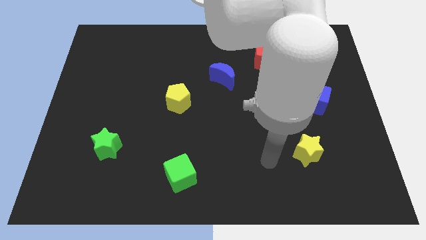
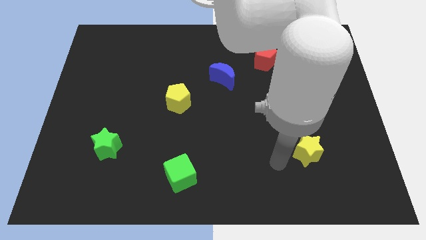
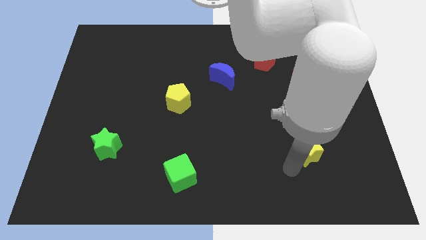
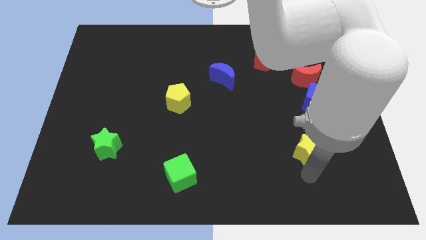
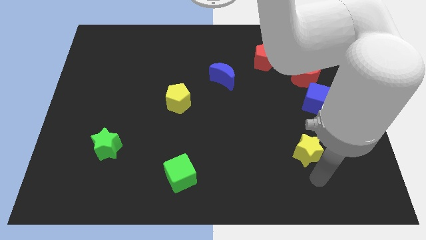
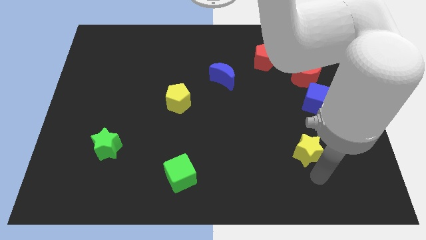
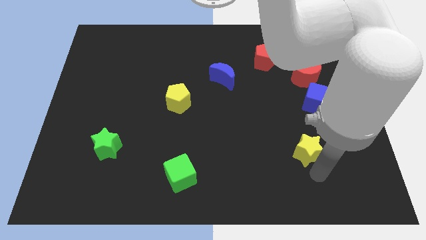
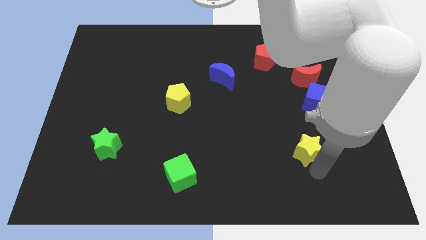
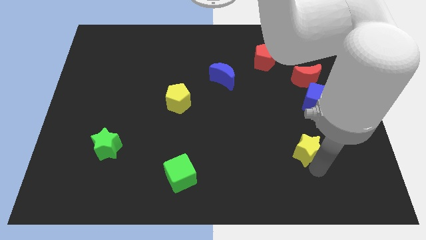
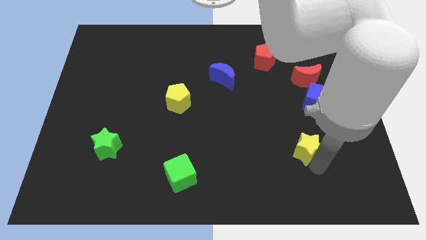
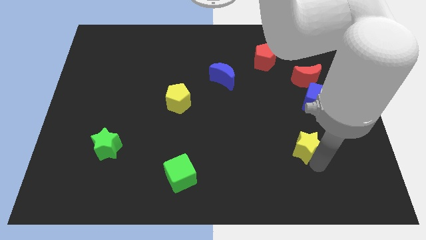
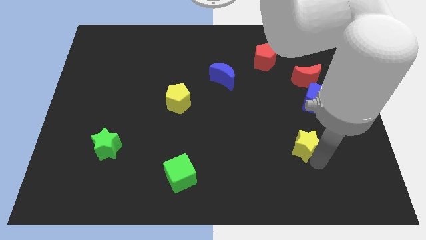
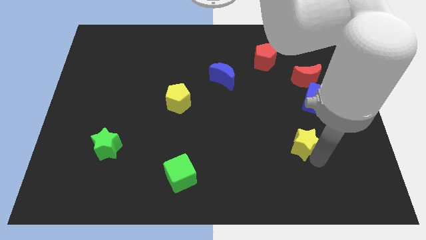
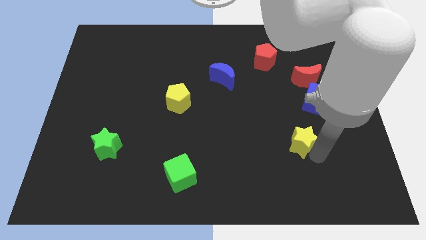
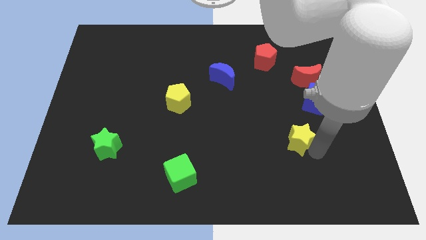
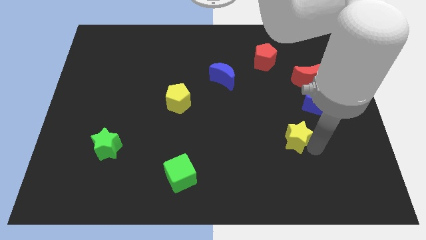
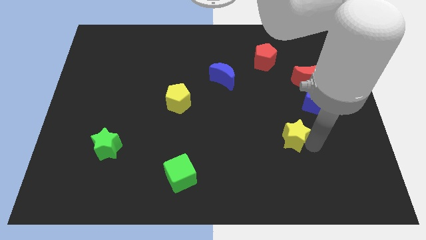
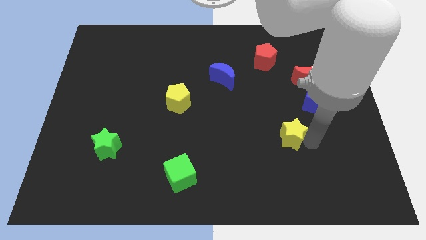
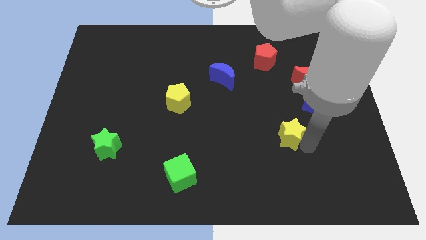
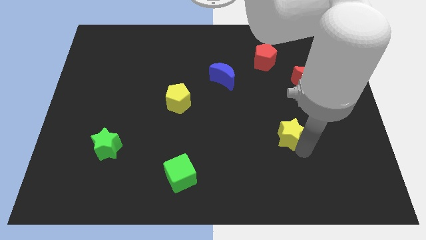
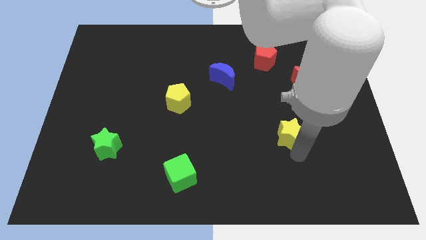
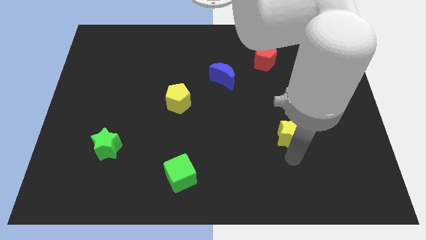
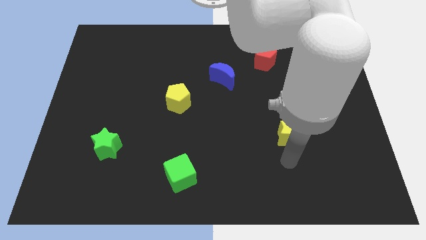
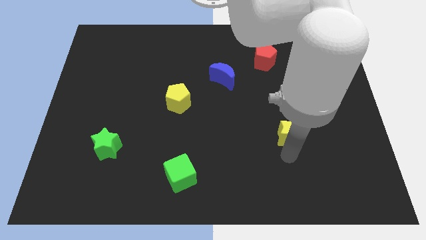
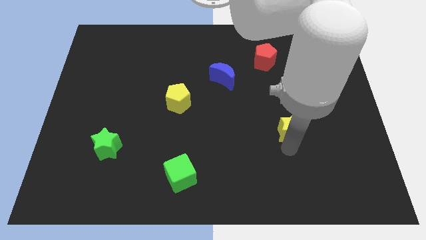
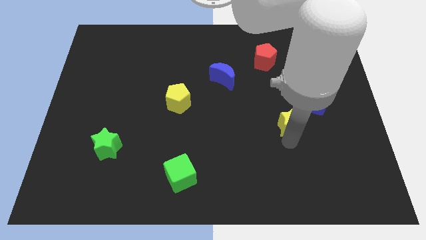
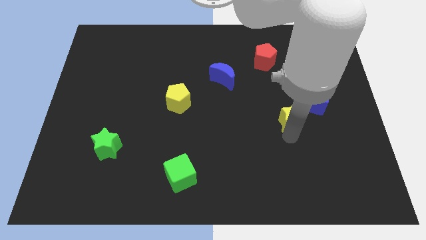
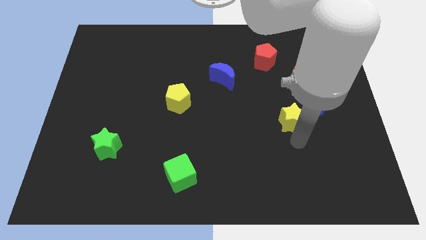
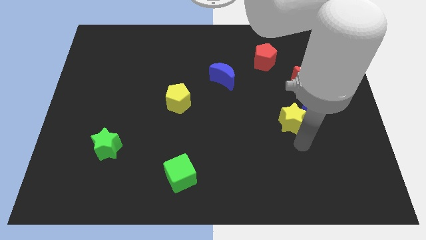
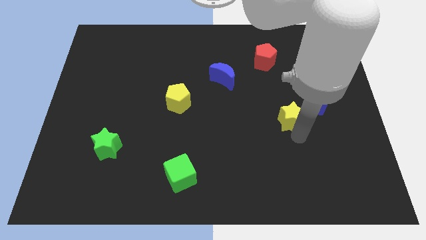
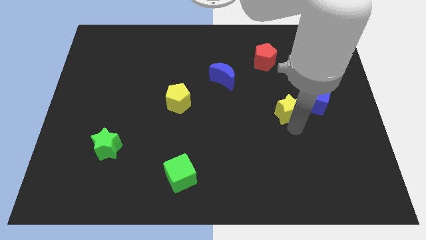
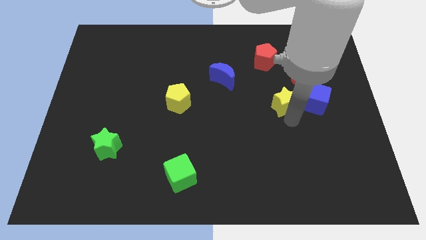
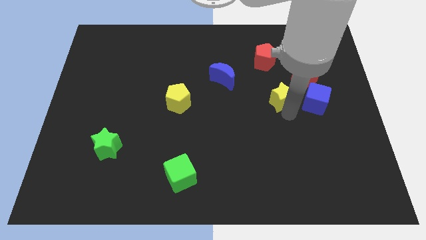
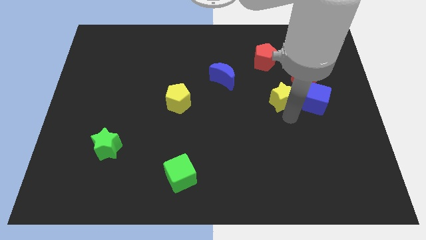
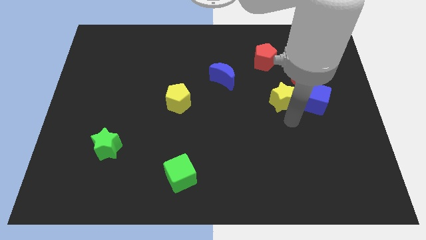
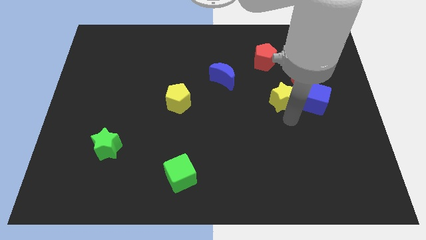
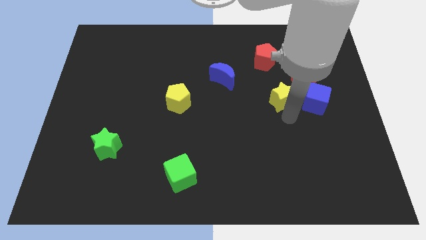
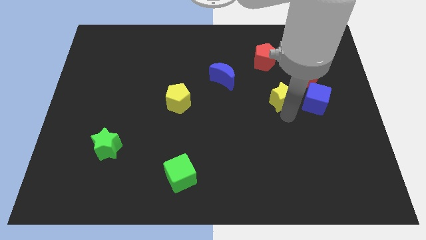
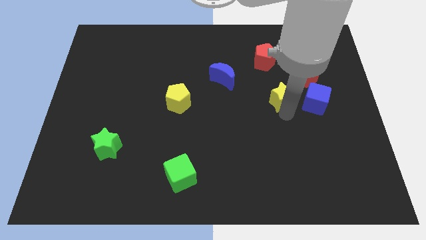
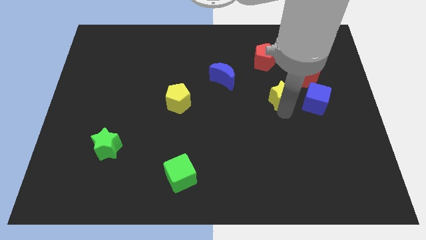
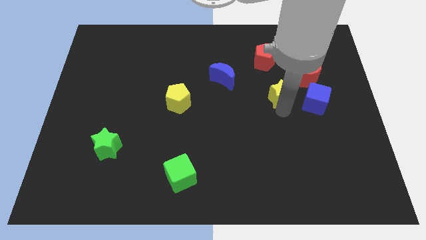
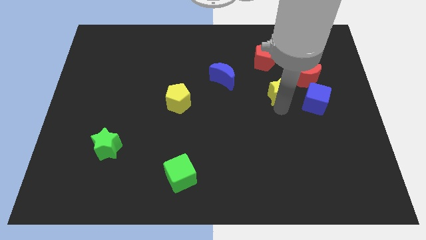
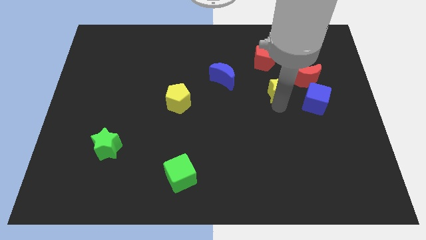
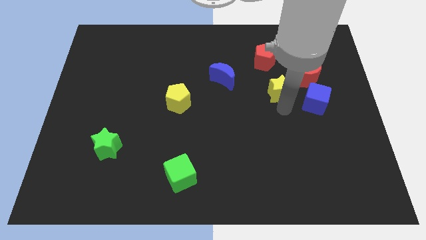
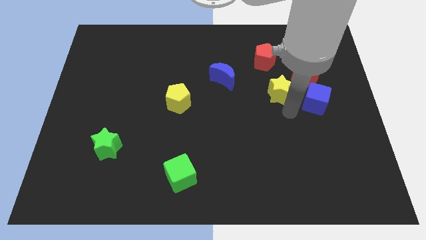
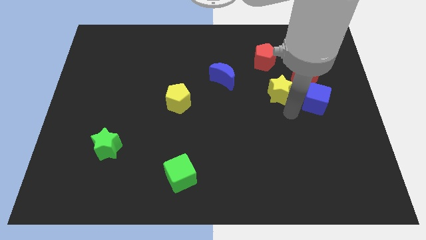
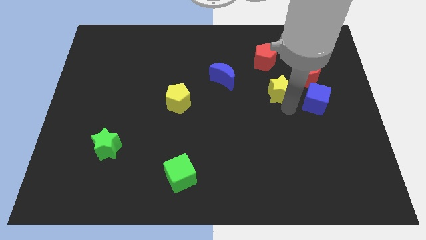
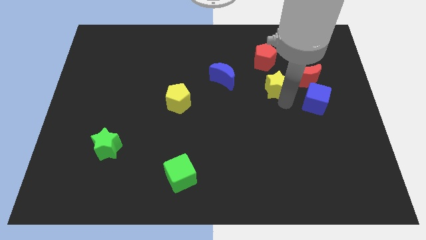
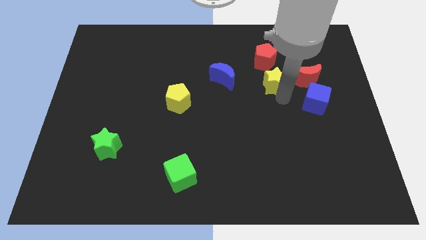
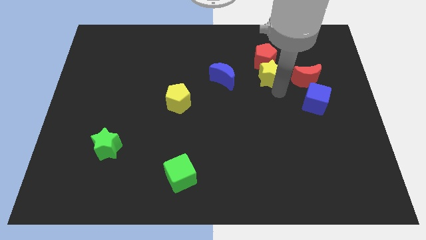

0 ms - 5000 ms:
put the yellow star towards the red pentagon

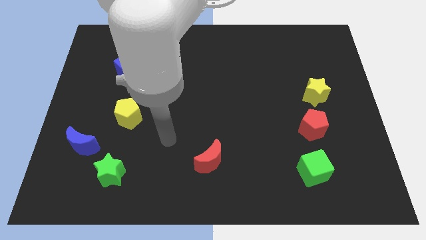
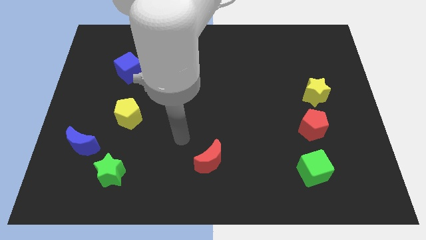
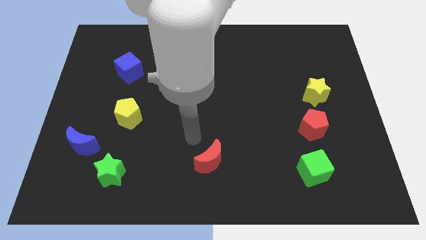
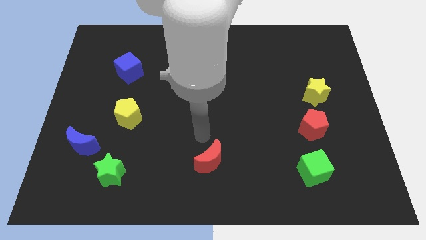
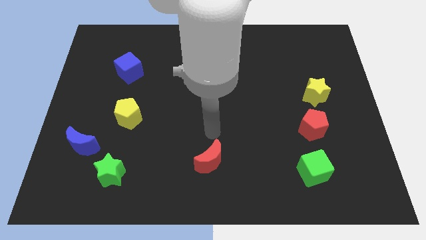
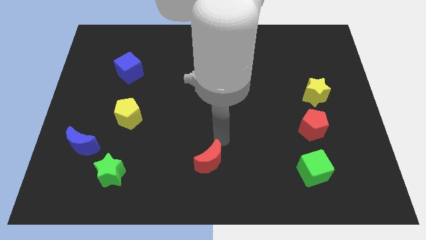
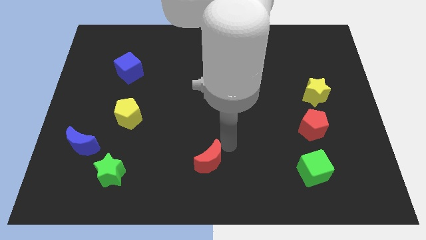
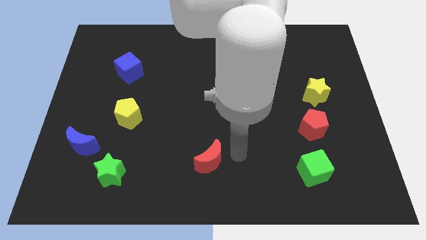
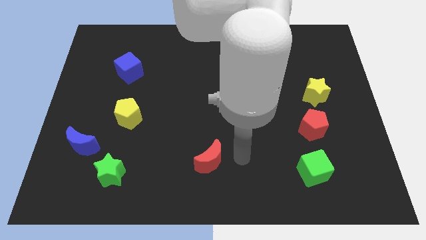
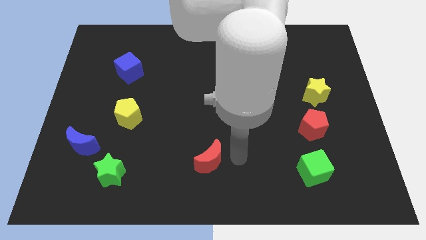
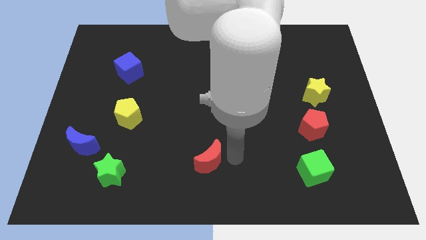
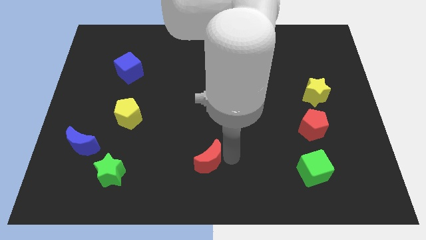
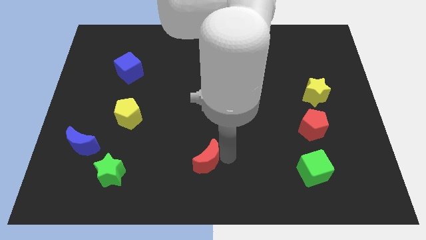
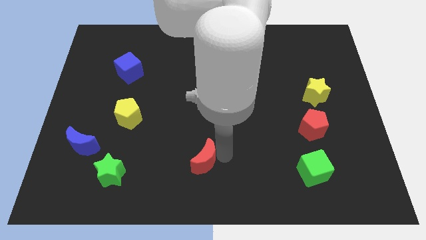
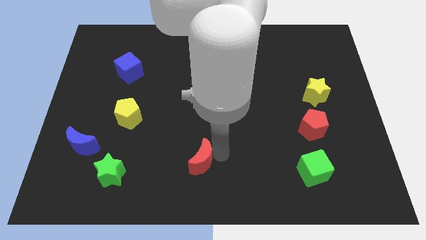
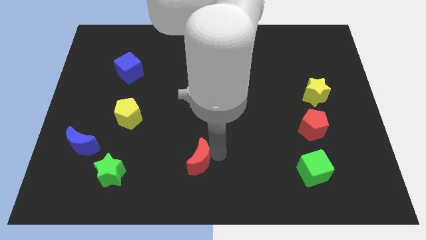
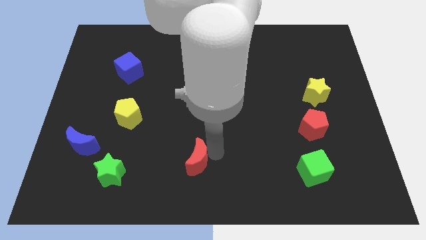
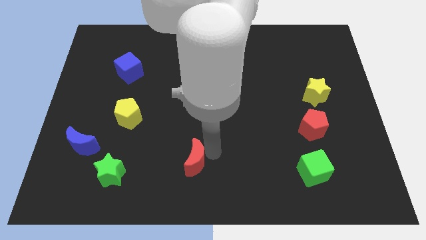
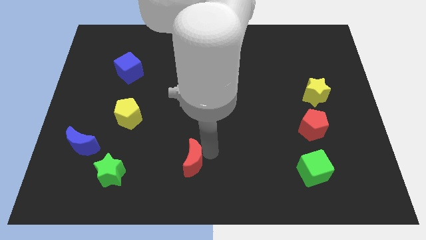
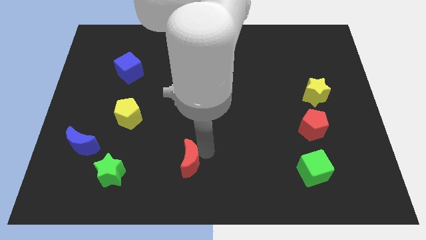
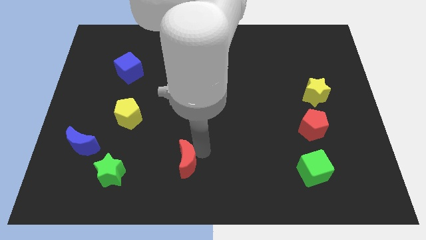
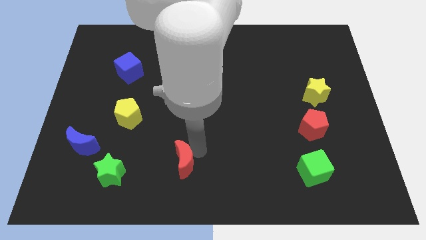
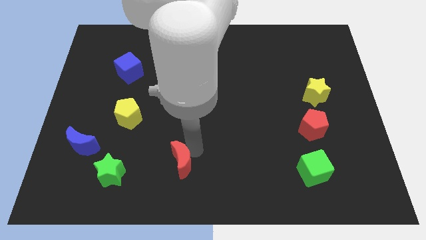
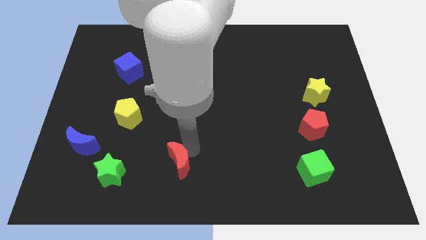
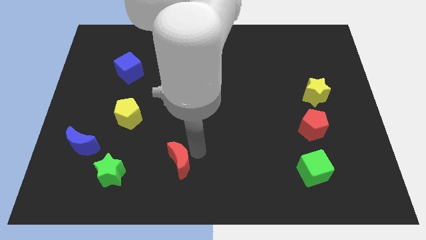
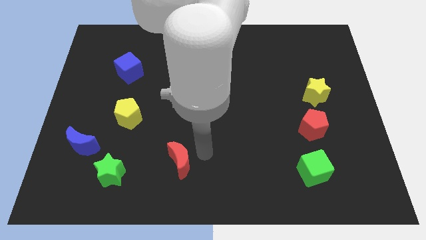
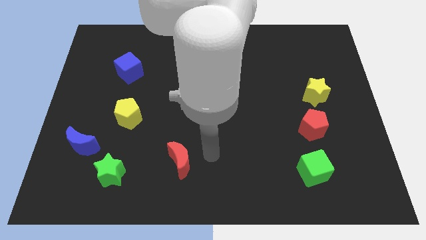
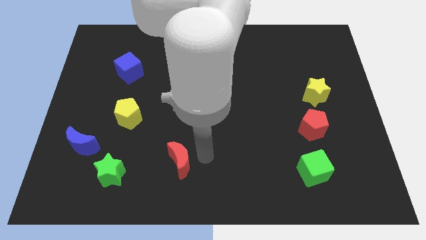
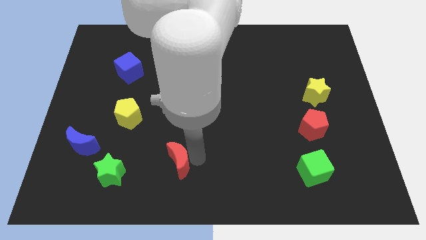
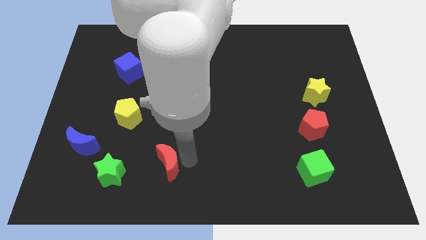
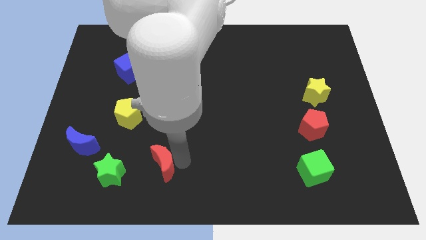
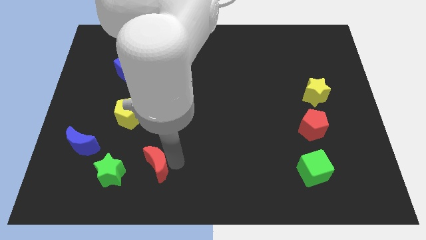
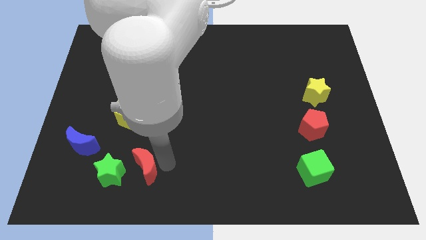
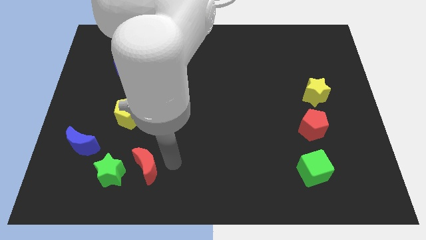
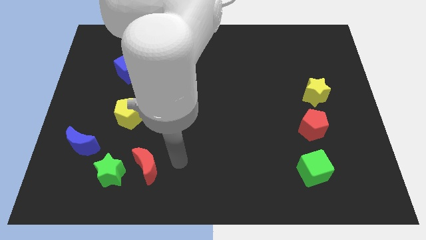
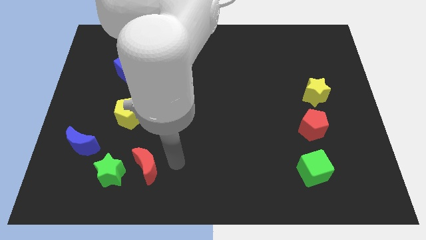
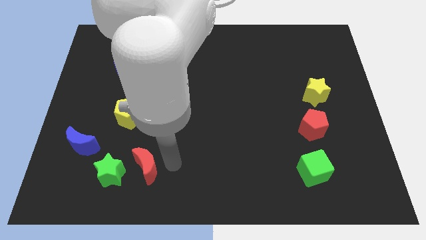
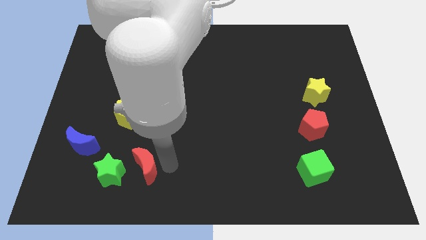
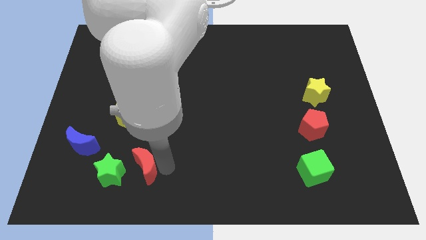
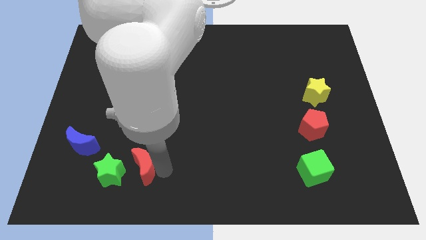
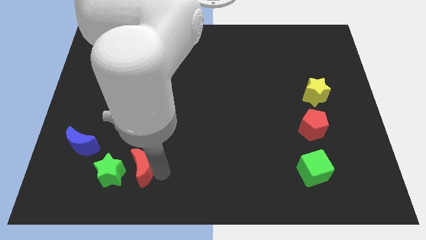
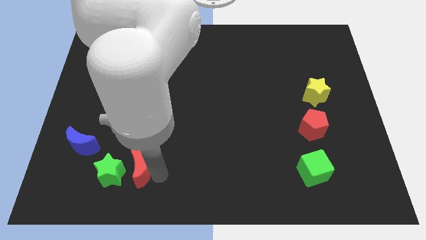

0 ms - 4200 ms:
move the red moon towards the green star
